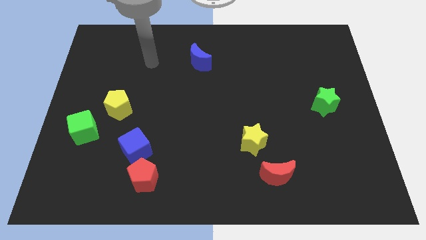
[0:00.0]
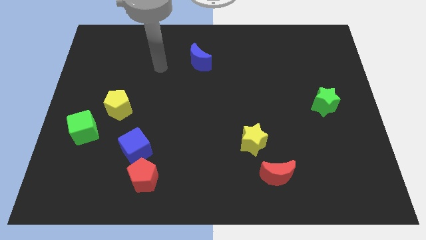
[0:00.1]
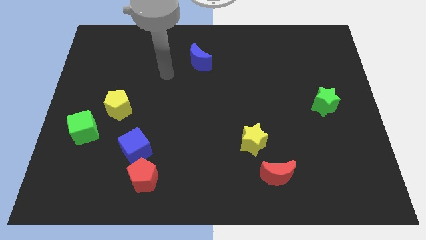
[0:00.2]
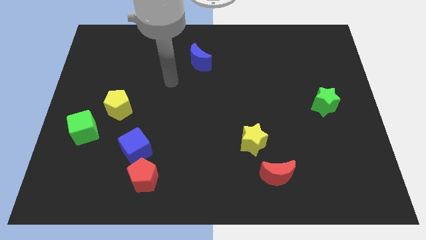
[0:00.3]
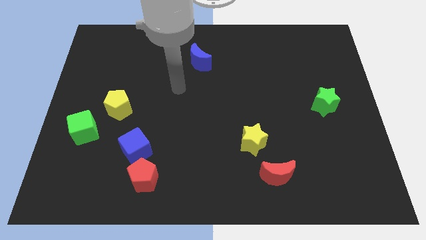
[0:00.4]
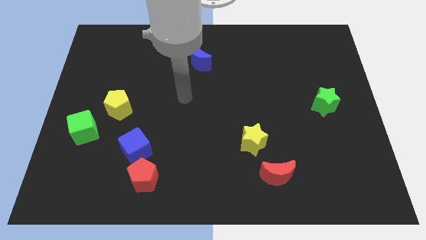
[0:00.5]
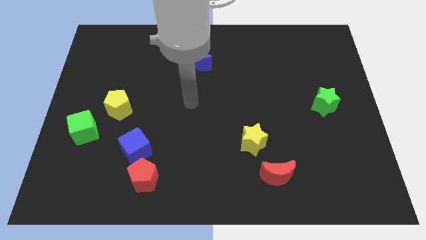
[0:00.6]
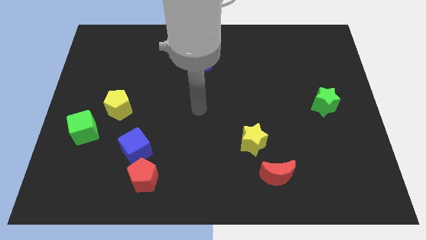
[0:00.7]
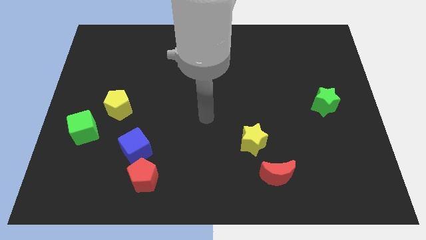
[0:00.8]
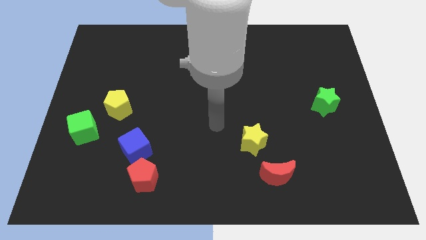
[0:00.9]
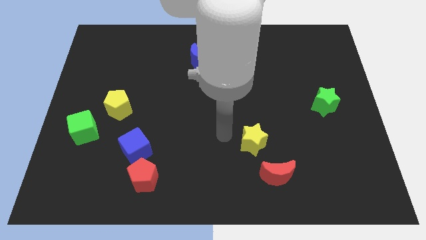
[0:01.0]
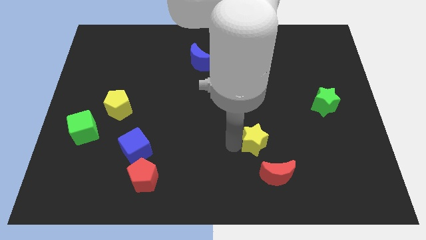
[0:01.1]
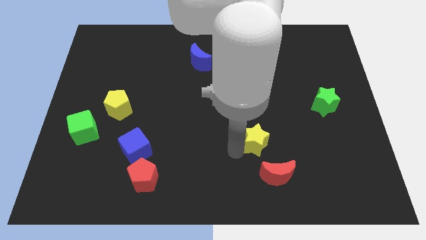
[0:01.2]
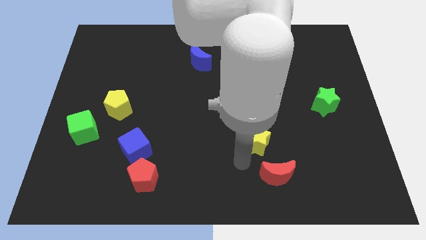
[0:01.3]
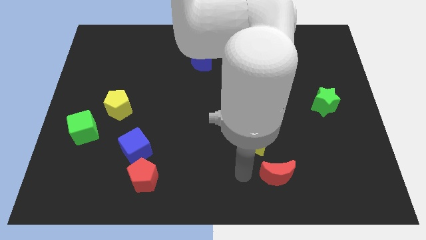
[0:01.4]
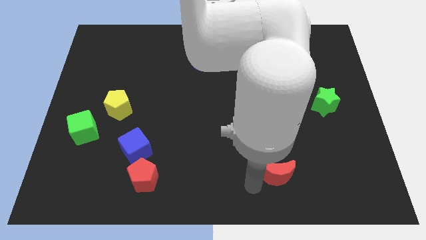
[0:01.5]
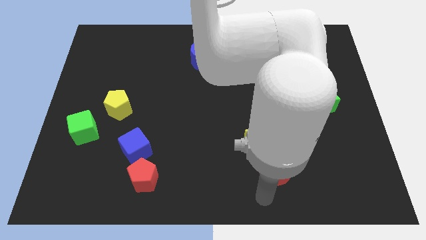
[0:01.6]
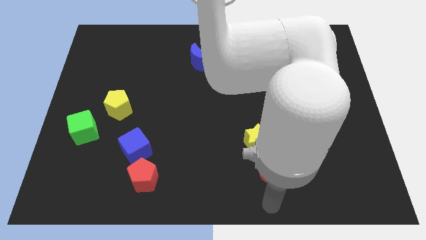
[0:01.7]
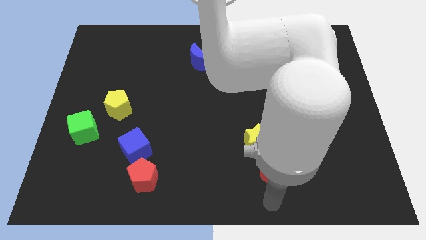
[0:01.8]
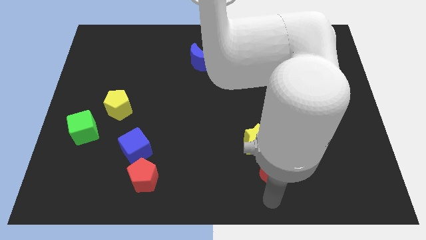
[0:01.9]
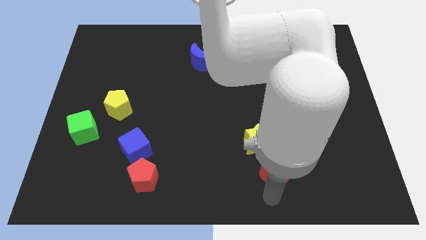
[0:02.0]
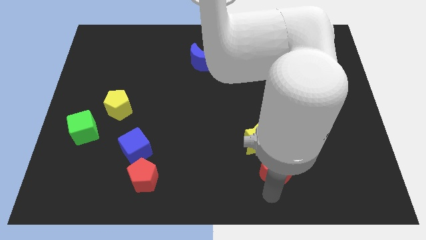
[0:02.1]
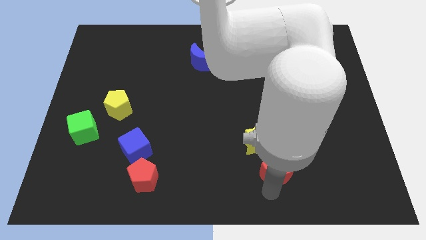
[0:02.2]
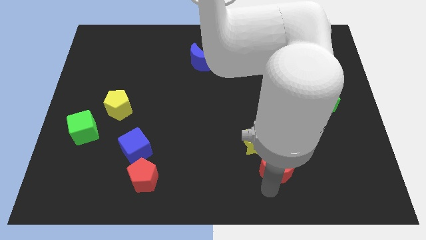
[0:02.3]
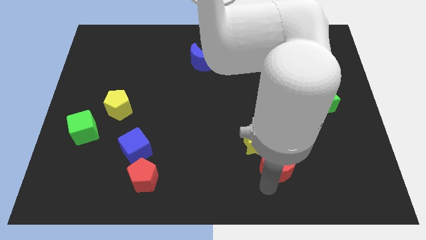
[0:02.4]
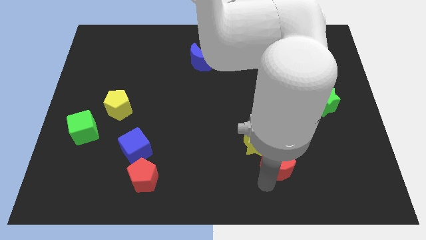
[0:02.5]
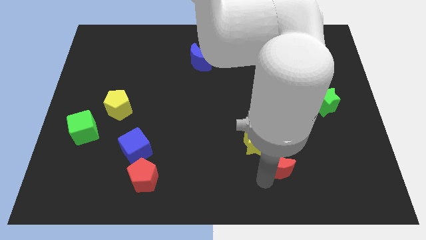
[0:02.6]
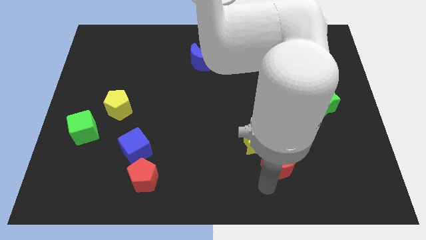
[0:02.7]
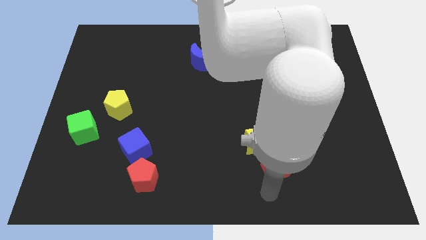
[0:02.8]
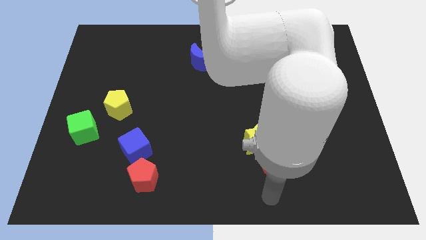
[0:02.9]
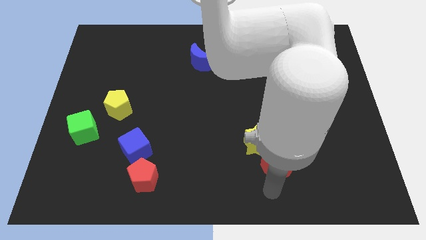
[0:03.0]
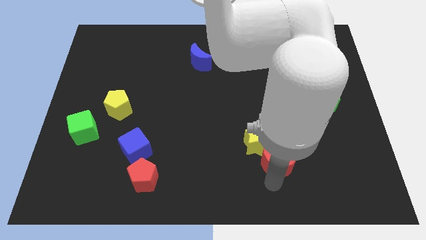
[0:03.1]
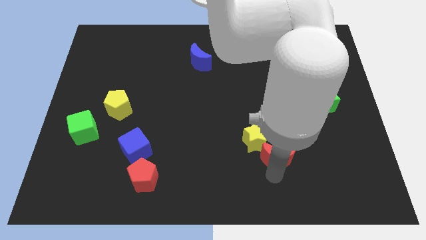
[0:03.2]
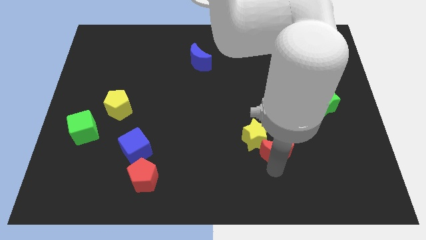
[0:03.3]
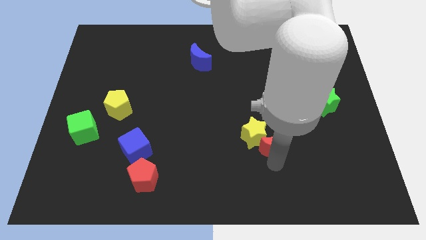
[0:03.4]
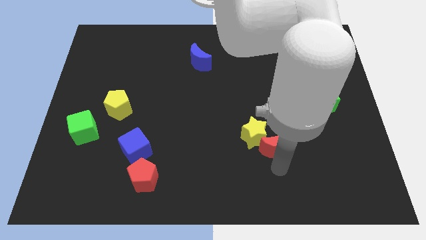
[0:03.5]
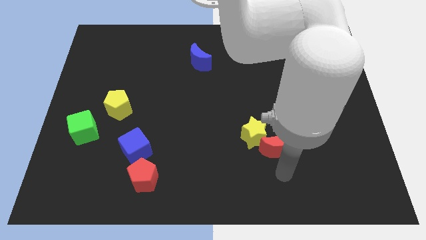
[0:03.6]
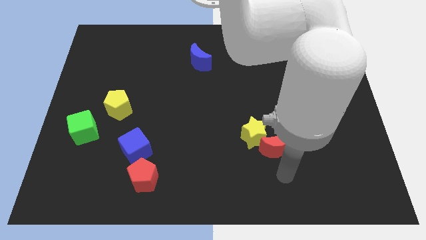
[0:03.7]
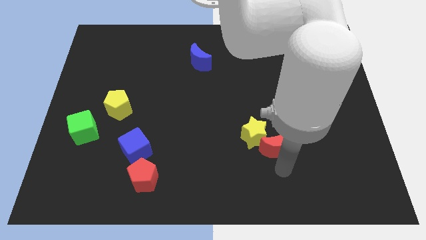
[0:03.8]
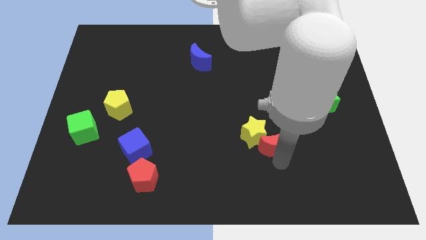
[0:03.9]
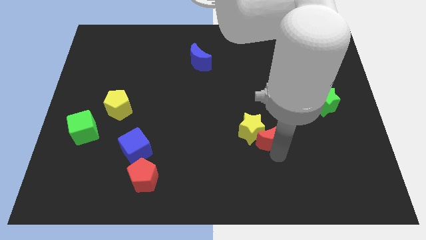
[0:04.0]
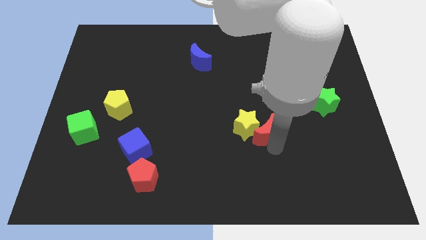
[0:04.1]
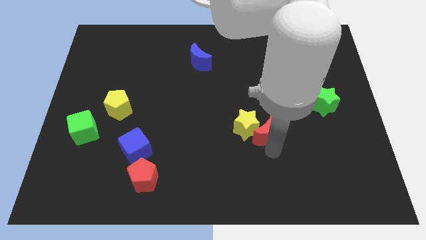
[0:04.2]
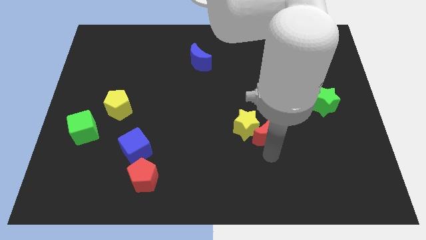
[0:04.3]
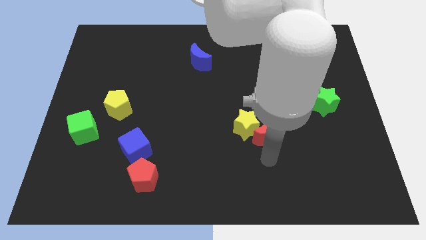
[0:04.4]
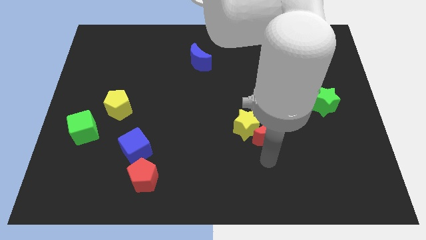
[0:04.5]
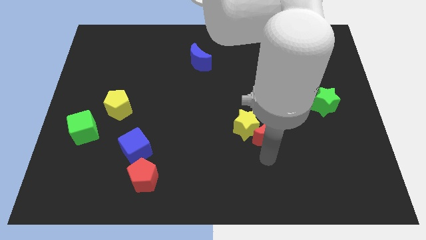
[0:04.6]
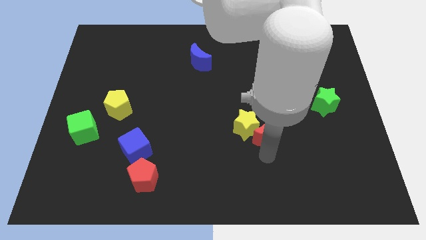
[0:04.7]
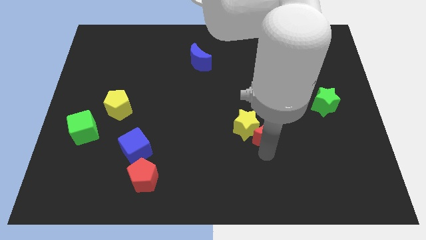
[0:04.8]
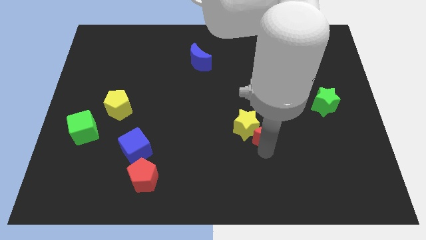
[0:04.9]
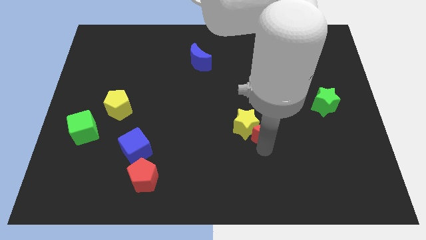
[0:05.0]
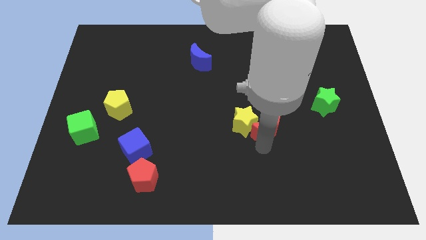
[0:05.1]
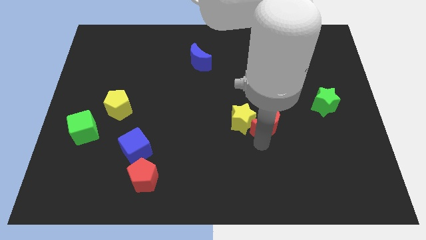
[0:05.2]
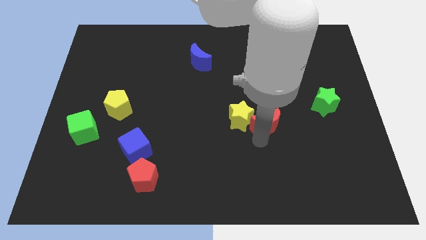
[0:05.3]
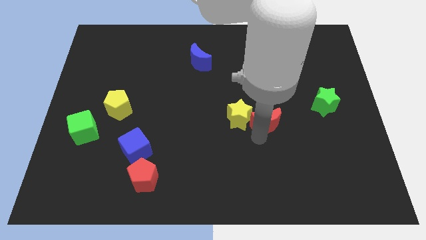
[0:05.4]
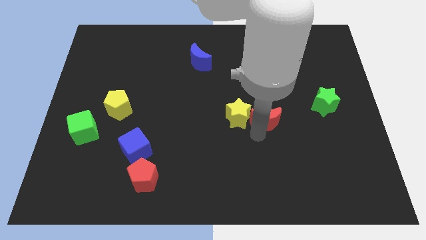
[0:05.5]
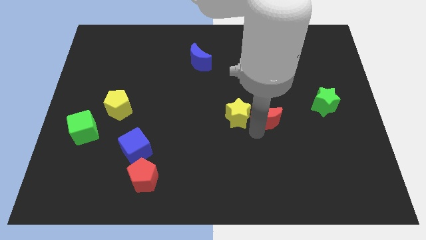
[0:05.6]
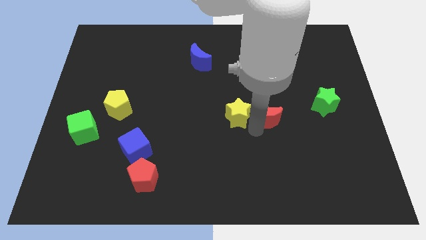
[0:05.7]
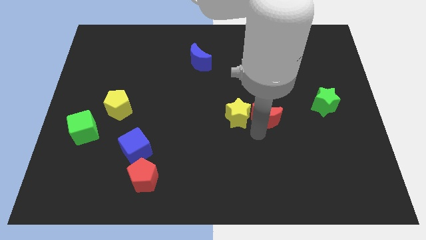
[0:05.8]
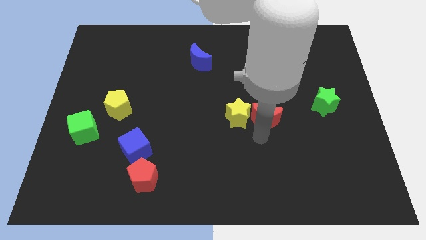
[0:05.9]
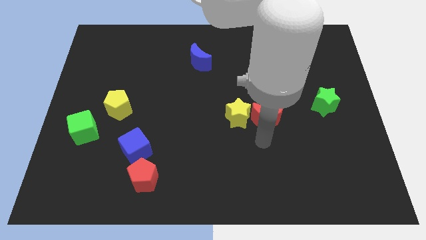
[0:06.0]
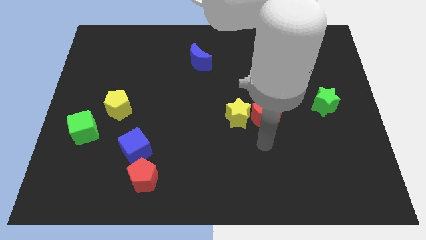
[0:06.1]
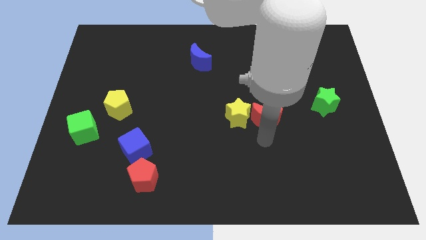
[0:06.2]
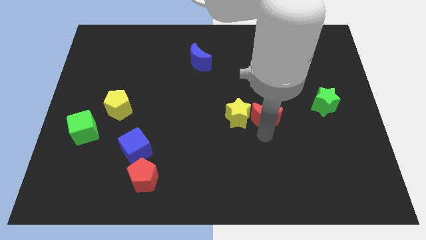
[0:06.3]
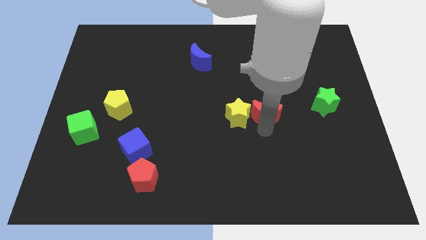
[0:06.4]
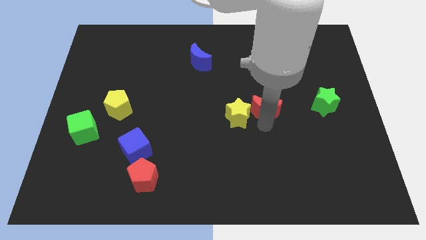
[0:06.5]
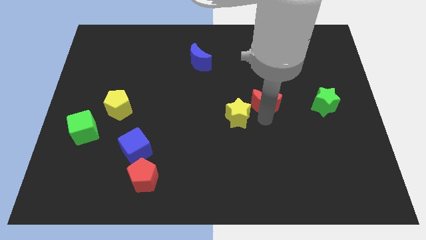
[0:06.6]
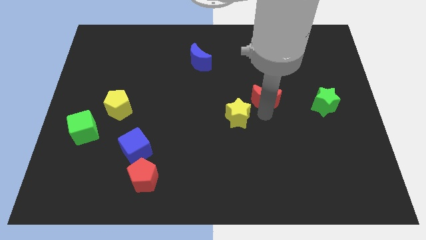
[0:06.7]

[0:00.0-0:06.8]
move the red moon up

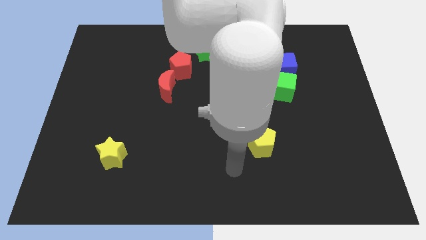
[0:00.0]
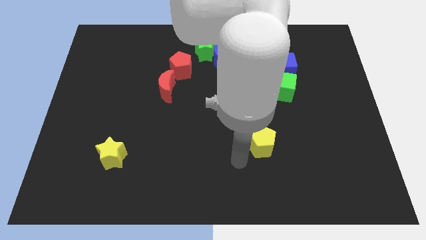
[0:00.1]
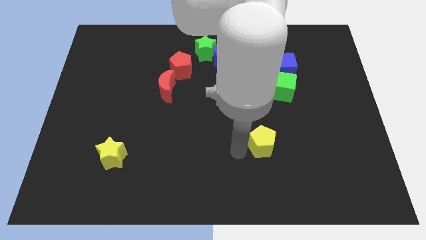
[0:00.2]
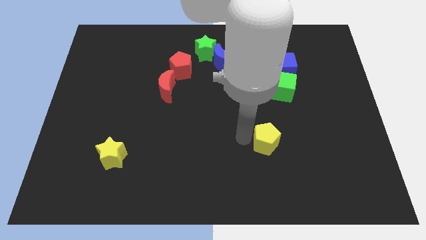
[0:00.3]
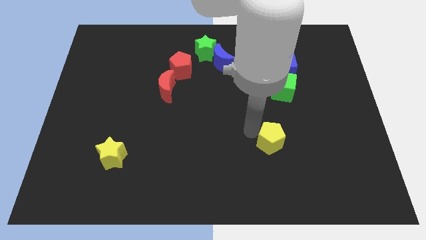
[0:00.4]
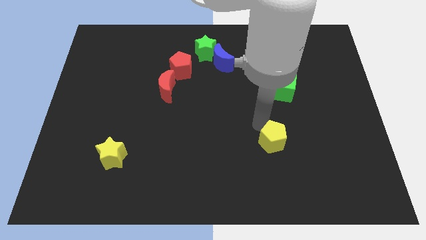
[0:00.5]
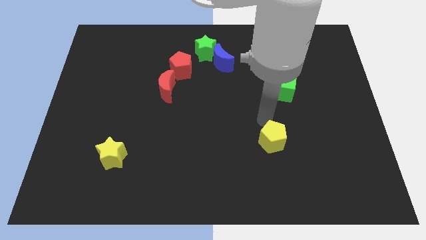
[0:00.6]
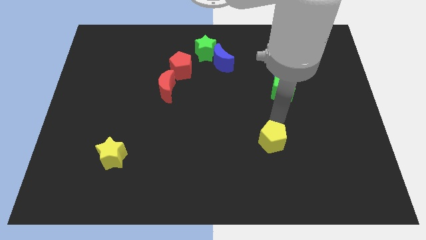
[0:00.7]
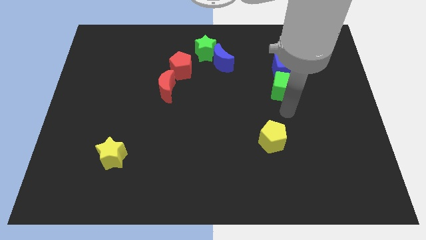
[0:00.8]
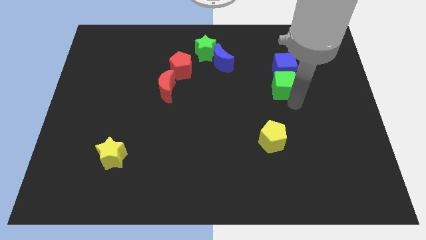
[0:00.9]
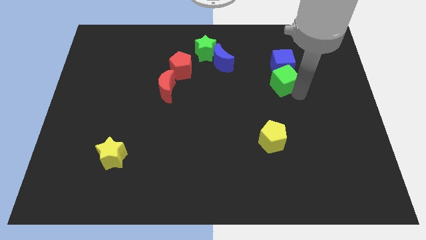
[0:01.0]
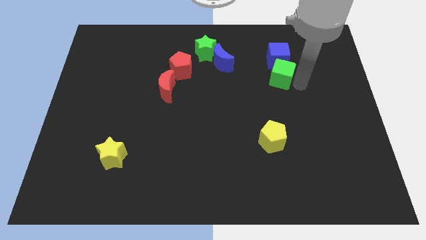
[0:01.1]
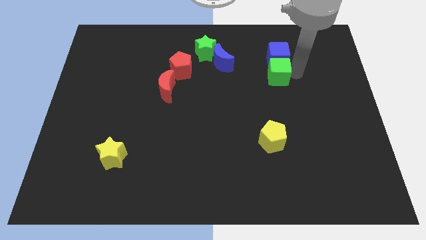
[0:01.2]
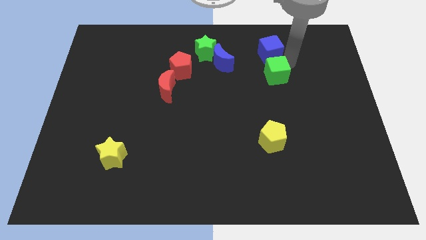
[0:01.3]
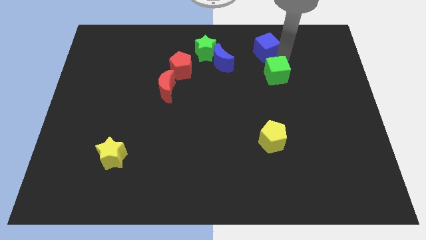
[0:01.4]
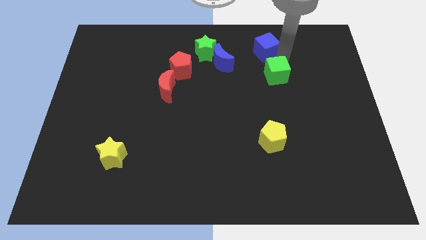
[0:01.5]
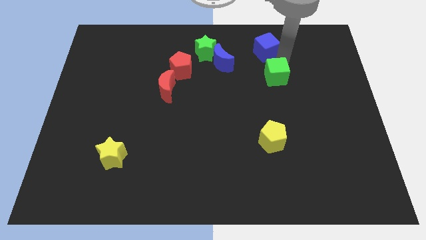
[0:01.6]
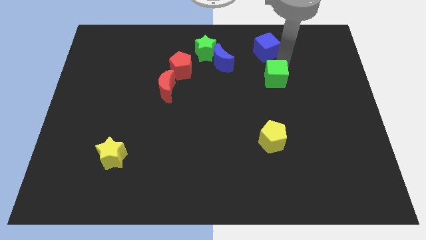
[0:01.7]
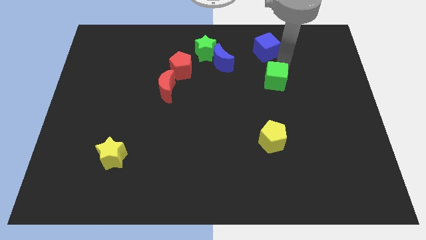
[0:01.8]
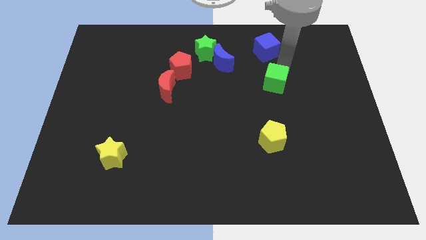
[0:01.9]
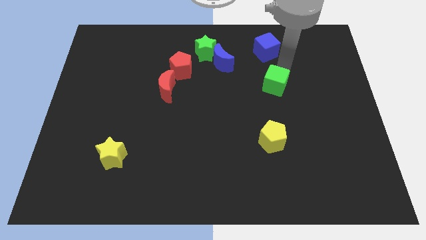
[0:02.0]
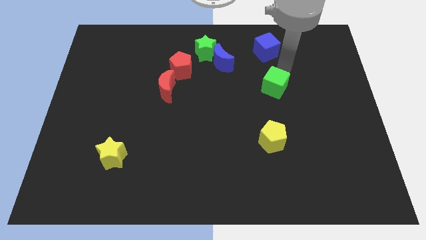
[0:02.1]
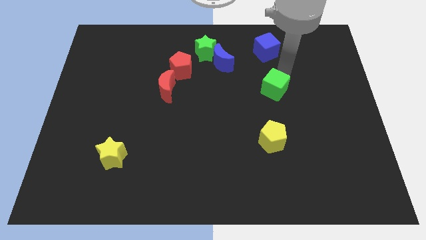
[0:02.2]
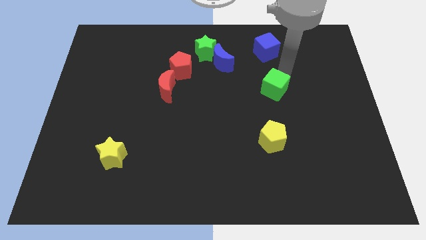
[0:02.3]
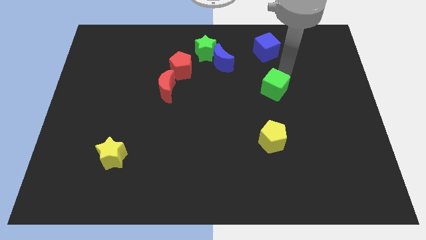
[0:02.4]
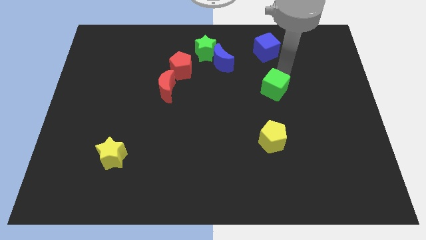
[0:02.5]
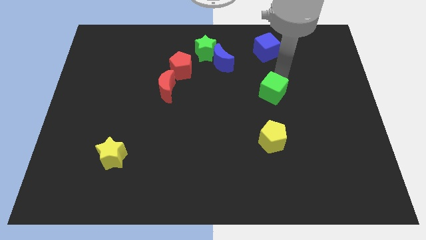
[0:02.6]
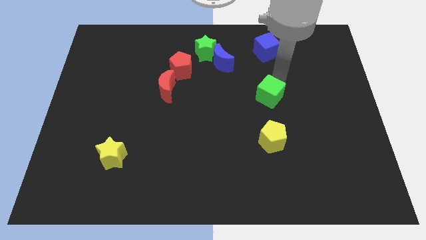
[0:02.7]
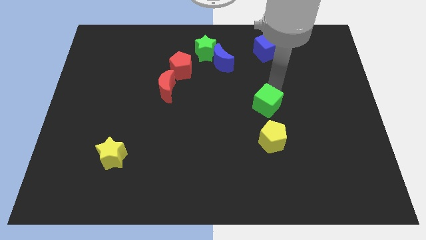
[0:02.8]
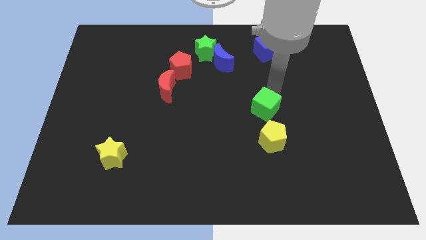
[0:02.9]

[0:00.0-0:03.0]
slightly slide the green cube diagonally downwards and to the left
